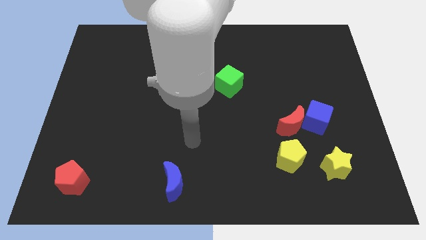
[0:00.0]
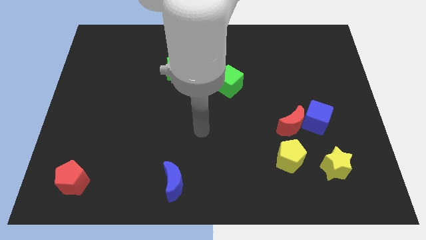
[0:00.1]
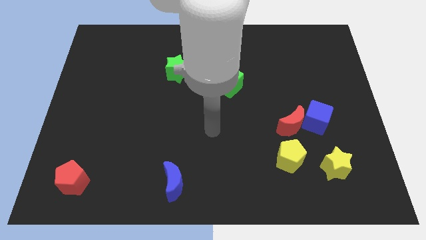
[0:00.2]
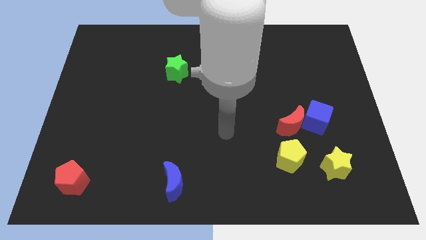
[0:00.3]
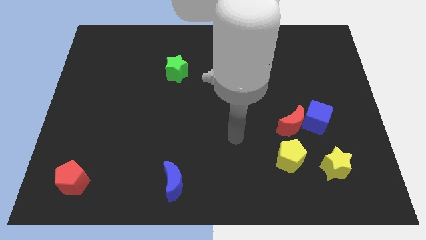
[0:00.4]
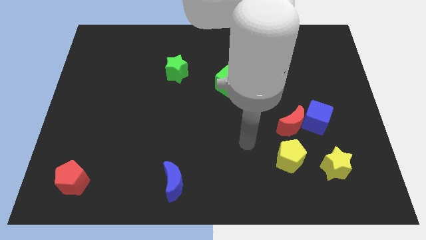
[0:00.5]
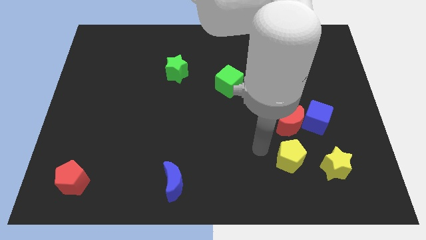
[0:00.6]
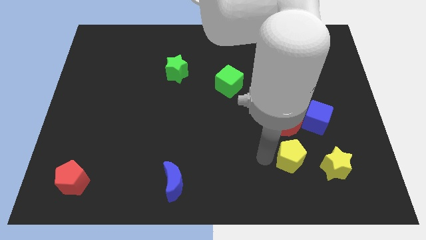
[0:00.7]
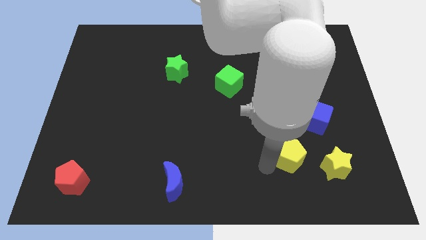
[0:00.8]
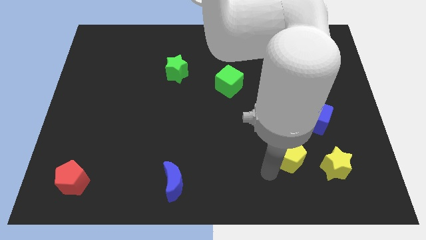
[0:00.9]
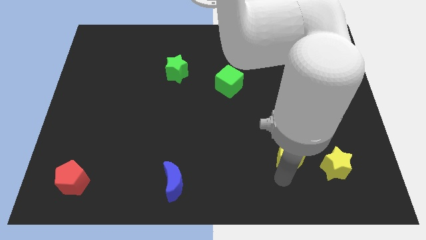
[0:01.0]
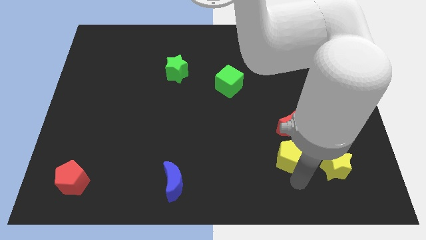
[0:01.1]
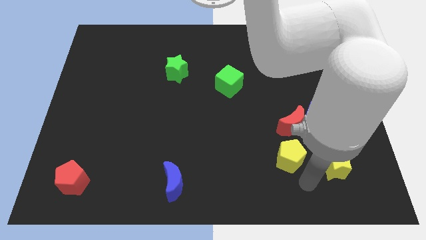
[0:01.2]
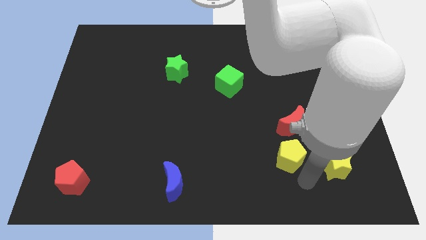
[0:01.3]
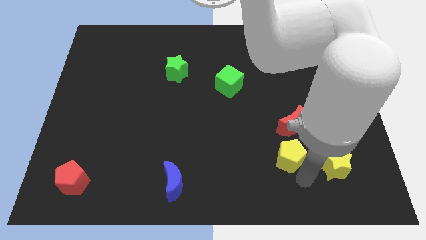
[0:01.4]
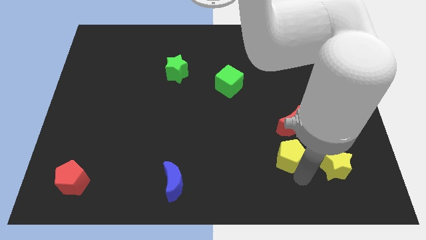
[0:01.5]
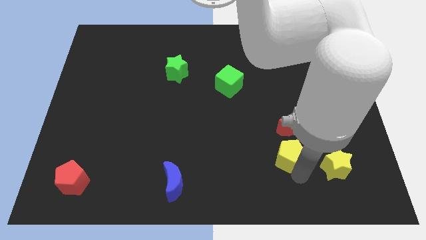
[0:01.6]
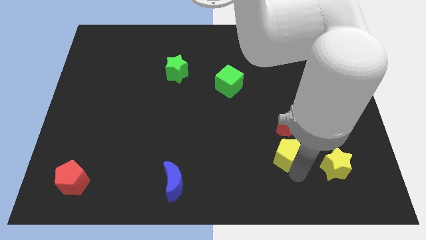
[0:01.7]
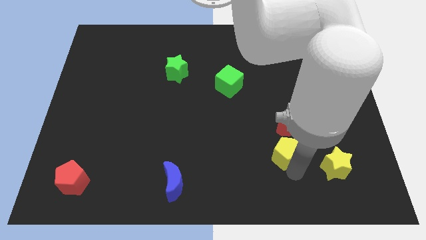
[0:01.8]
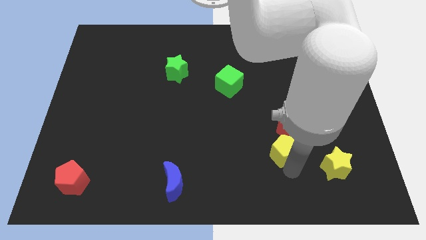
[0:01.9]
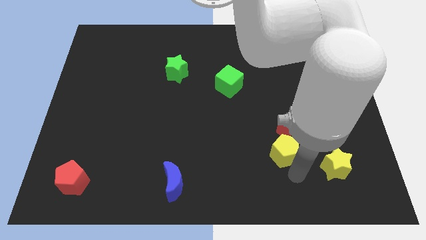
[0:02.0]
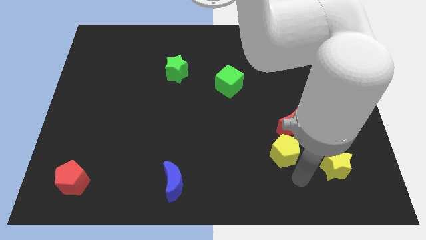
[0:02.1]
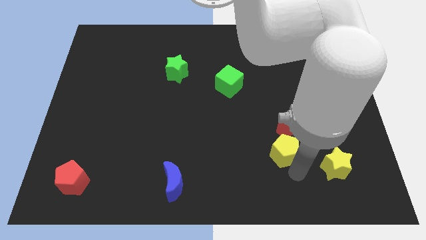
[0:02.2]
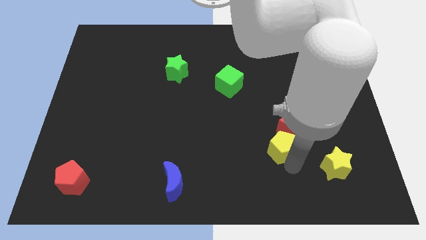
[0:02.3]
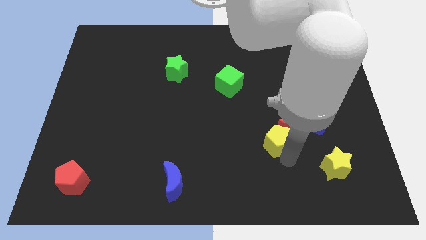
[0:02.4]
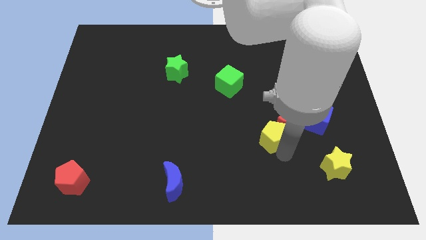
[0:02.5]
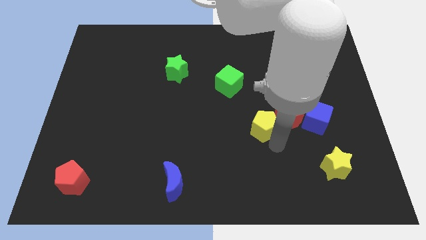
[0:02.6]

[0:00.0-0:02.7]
slightly move the yellow pentagon upwards

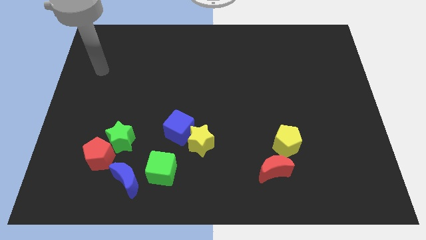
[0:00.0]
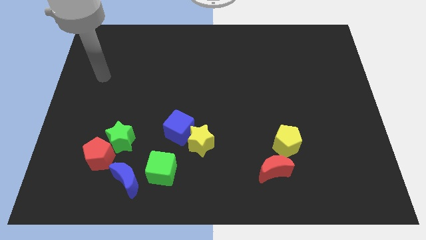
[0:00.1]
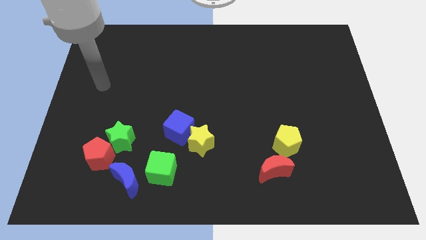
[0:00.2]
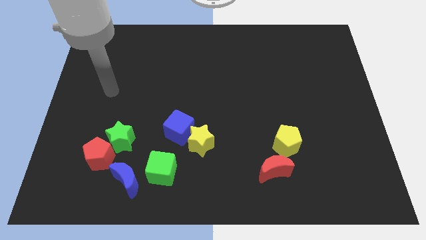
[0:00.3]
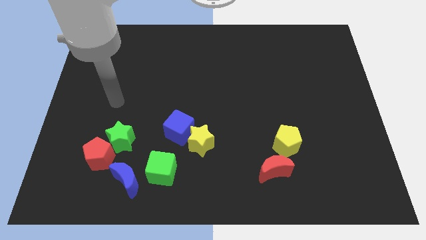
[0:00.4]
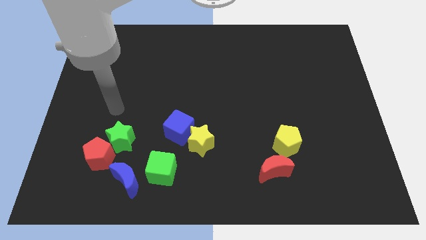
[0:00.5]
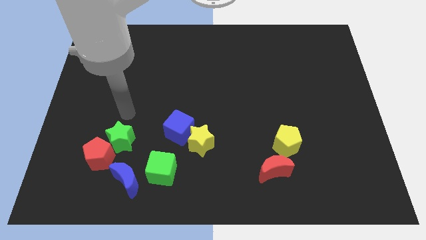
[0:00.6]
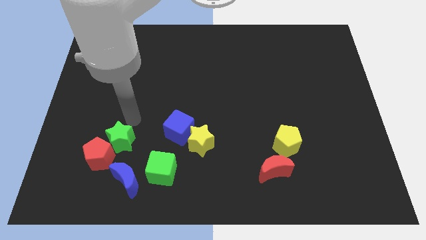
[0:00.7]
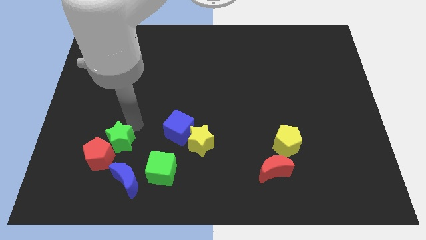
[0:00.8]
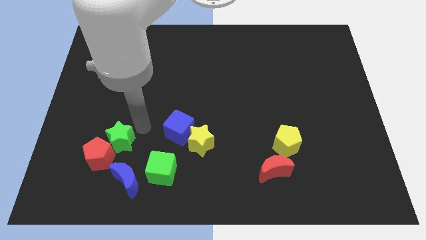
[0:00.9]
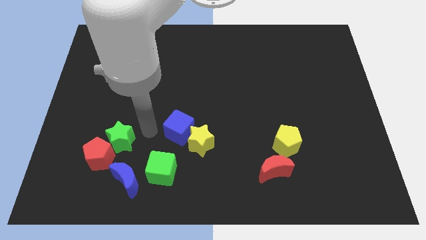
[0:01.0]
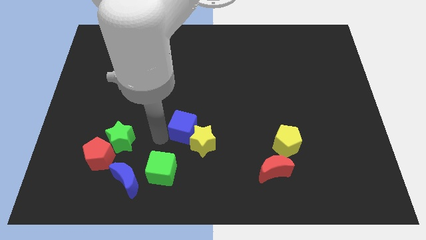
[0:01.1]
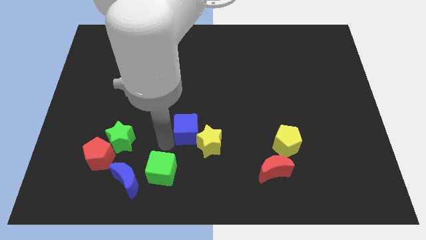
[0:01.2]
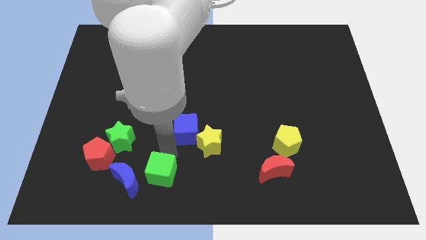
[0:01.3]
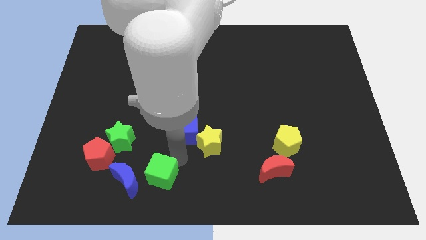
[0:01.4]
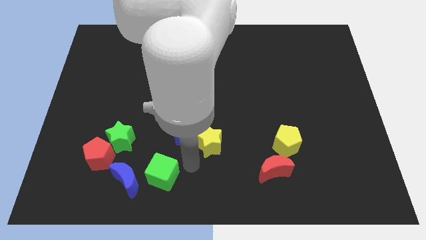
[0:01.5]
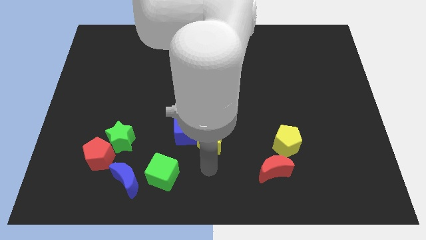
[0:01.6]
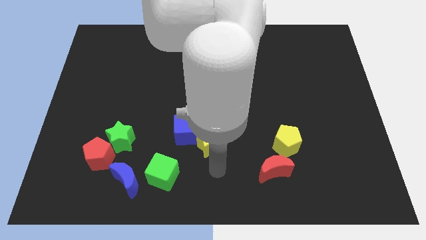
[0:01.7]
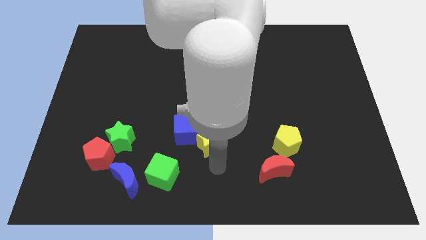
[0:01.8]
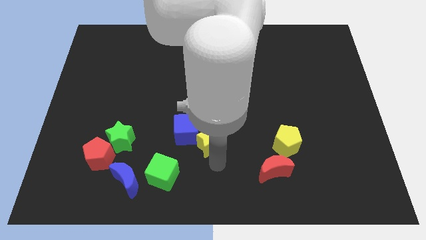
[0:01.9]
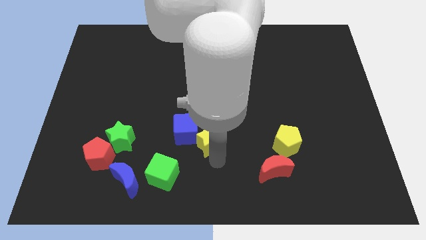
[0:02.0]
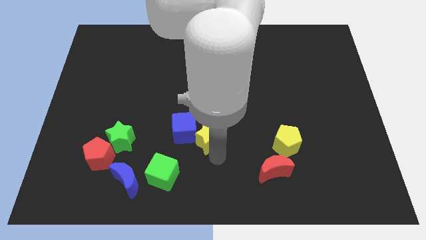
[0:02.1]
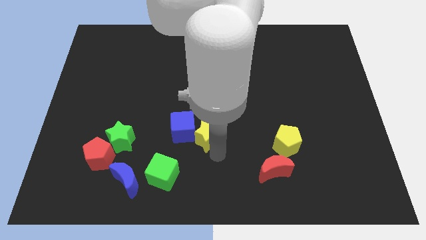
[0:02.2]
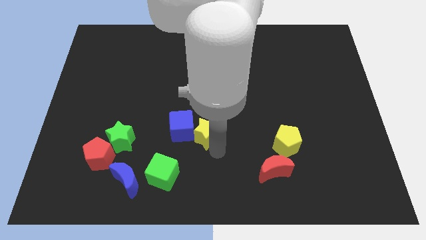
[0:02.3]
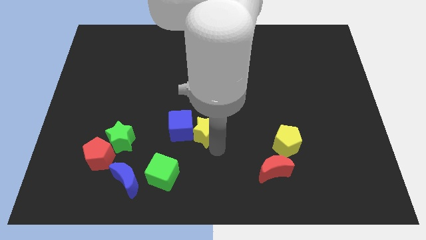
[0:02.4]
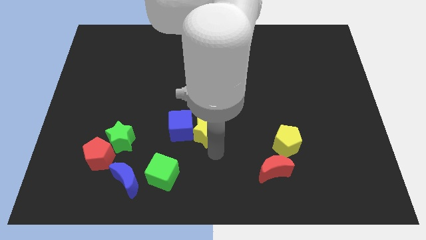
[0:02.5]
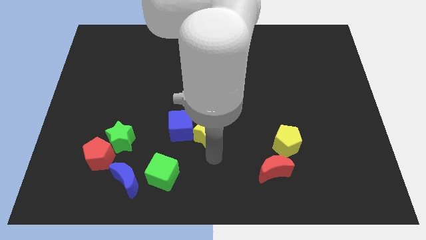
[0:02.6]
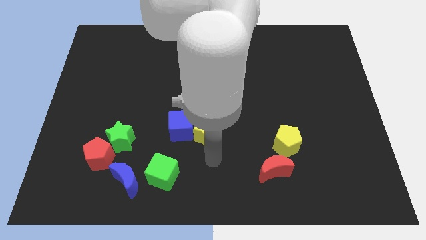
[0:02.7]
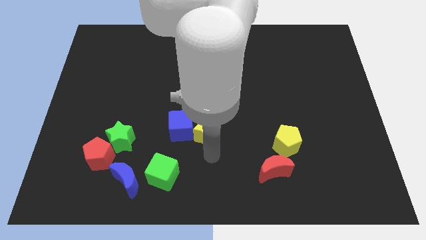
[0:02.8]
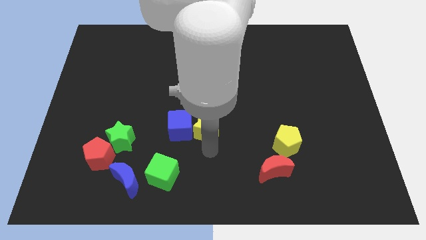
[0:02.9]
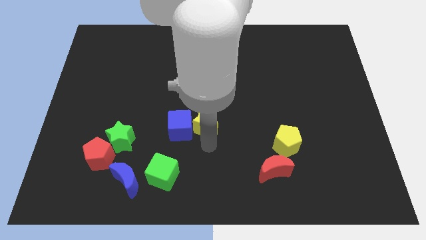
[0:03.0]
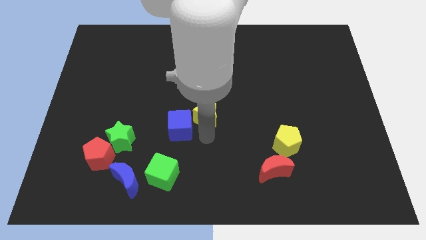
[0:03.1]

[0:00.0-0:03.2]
push the yellow star up a bit

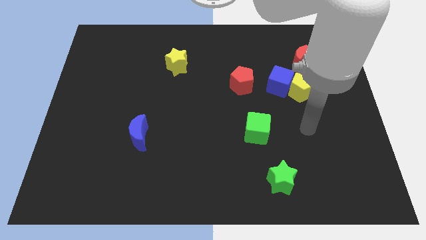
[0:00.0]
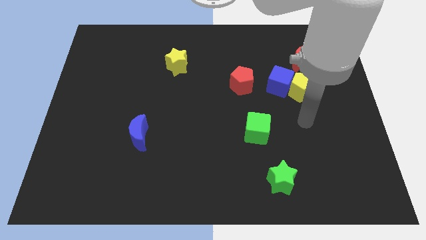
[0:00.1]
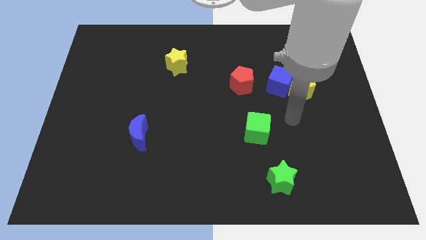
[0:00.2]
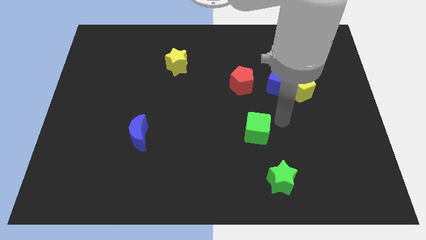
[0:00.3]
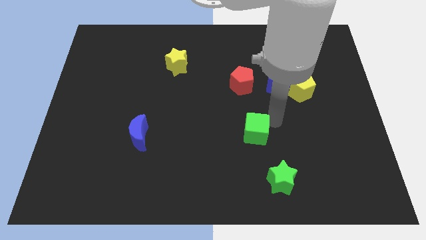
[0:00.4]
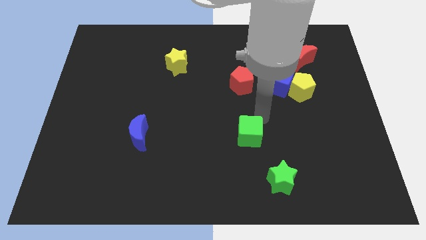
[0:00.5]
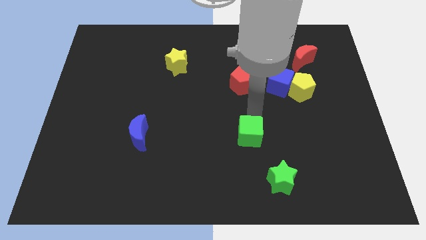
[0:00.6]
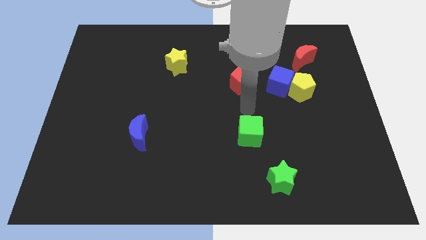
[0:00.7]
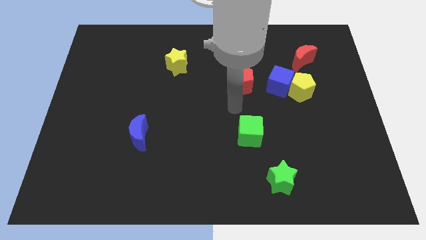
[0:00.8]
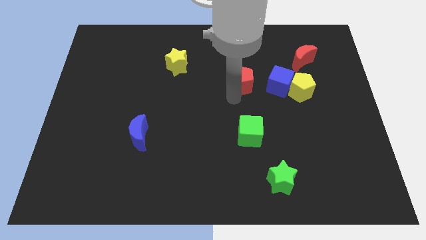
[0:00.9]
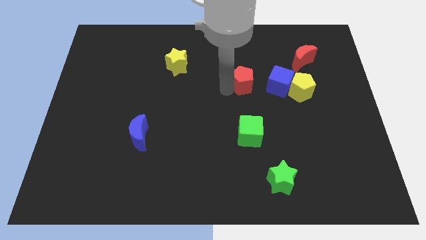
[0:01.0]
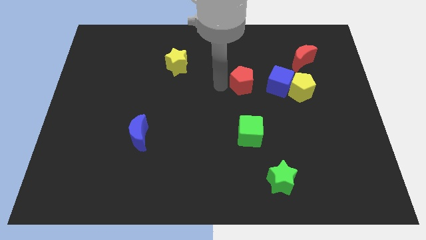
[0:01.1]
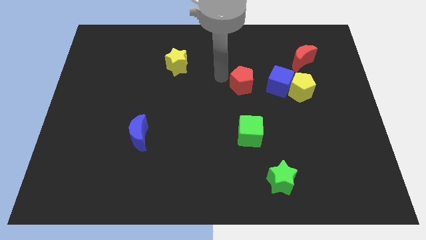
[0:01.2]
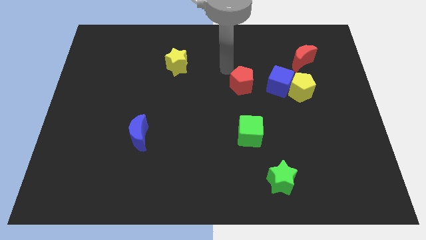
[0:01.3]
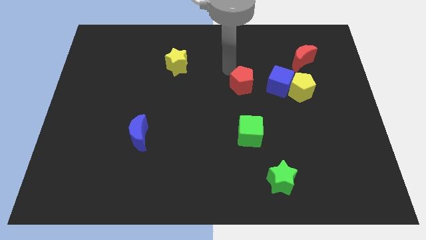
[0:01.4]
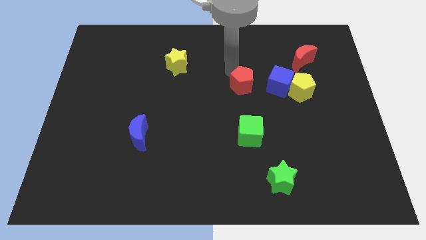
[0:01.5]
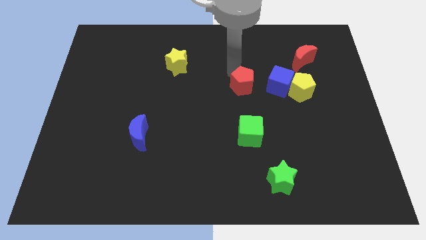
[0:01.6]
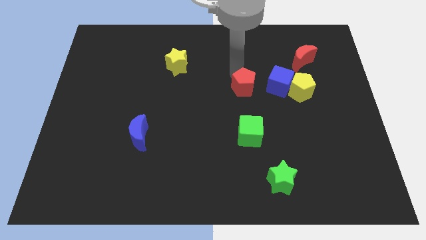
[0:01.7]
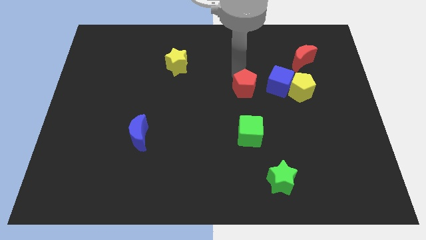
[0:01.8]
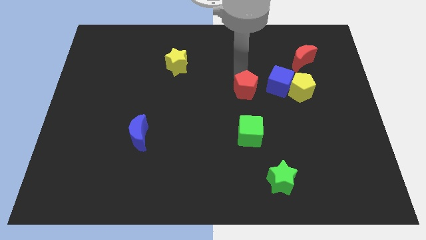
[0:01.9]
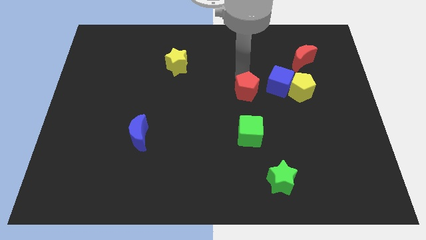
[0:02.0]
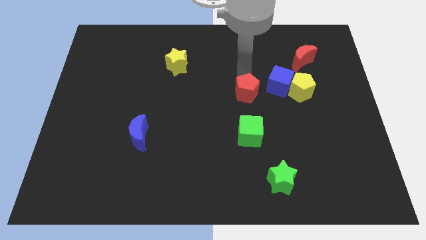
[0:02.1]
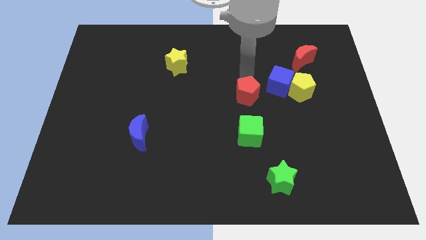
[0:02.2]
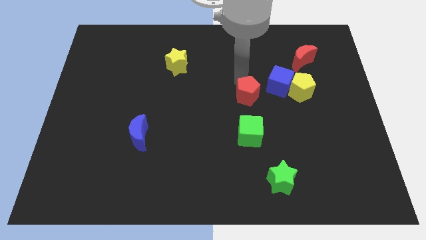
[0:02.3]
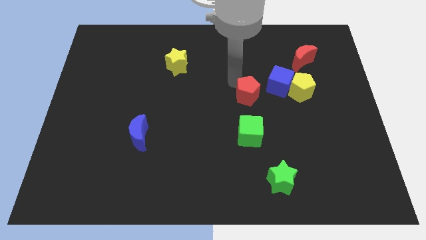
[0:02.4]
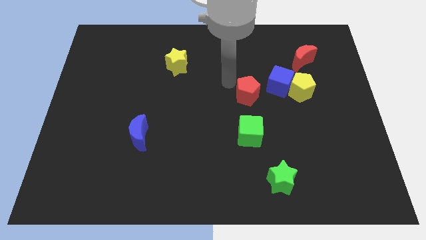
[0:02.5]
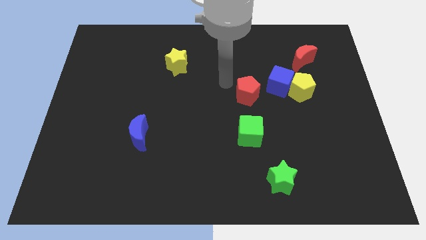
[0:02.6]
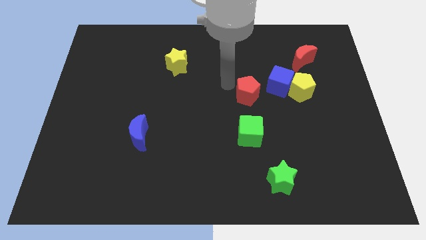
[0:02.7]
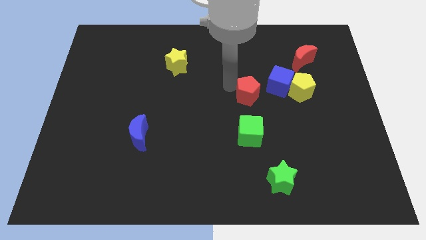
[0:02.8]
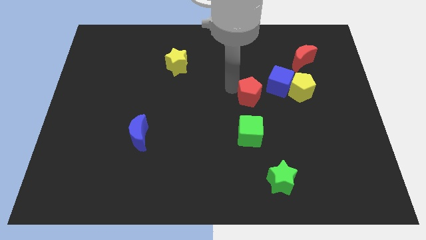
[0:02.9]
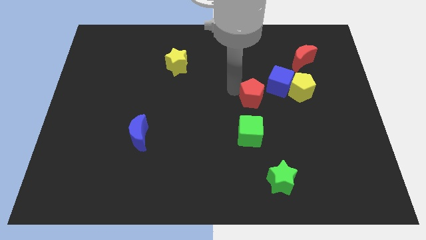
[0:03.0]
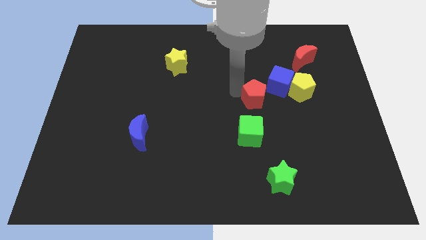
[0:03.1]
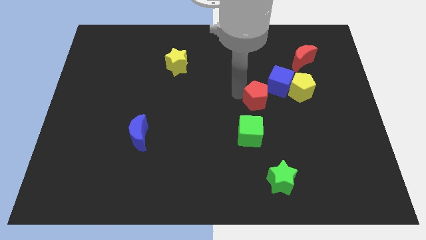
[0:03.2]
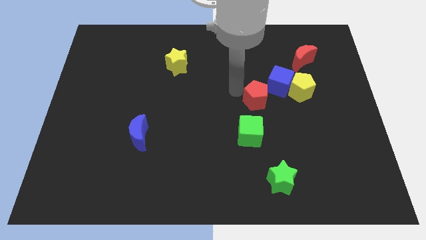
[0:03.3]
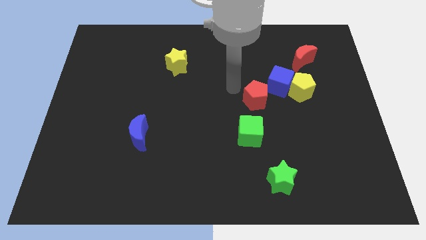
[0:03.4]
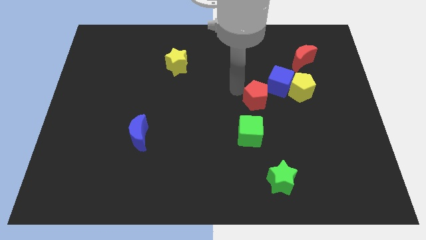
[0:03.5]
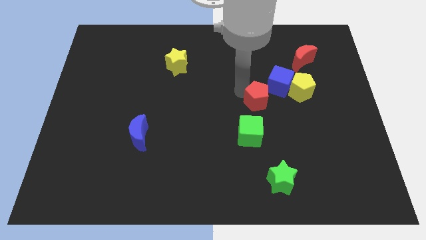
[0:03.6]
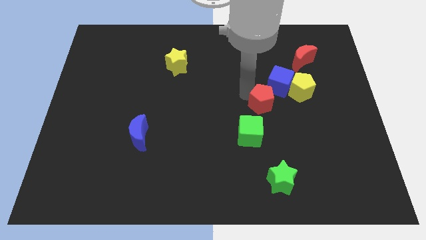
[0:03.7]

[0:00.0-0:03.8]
push the red pentagon a bit diagonally downwards and right
